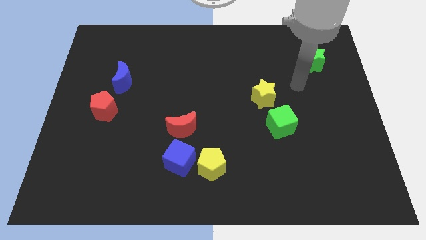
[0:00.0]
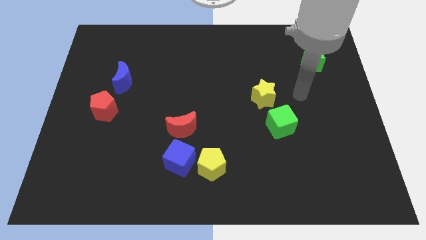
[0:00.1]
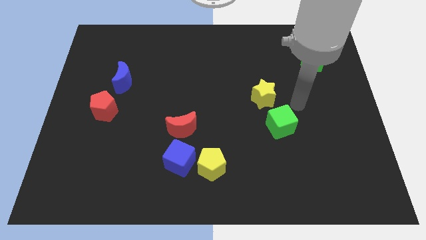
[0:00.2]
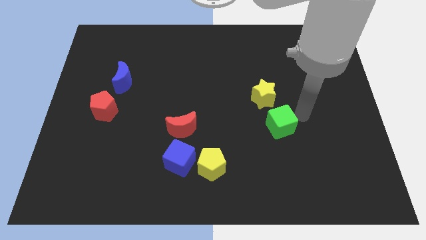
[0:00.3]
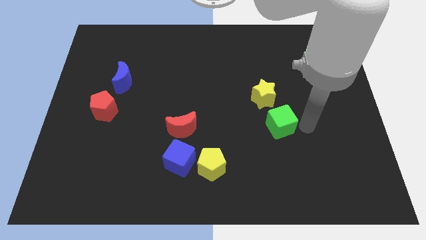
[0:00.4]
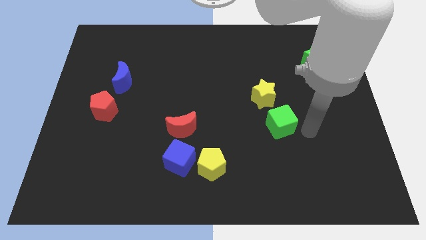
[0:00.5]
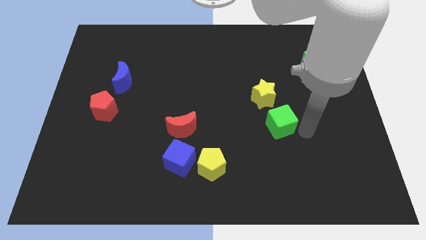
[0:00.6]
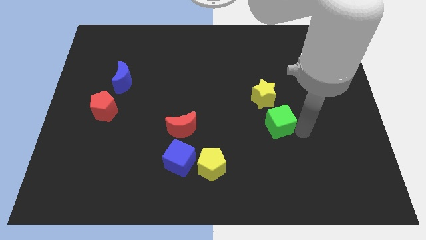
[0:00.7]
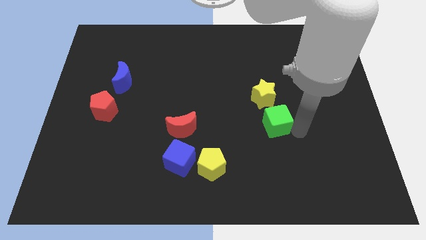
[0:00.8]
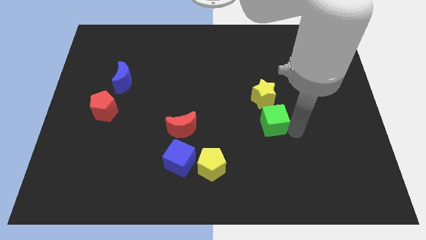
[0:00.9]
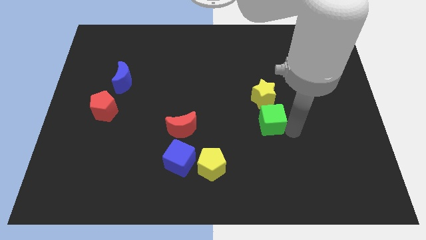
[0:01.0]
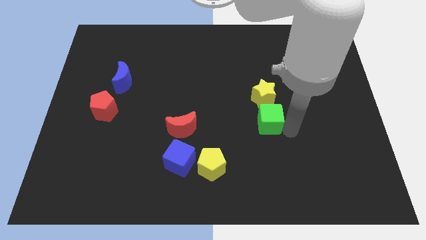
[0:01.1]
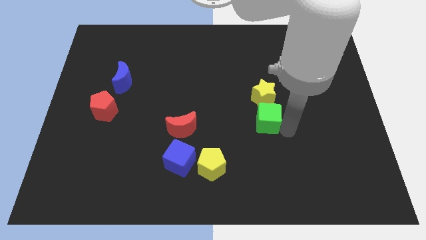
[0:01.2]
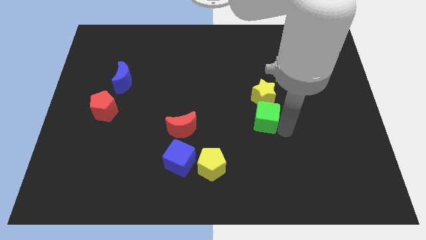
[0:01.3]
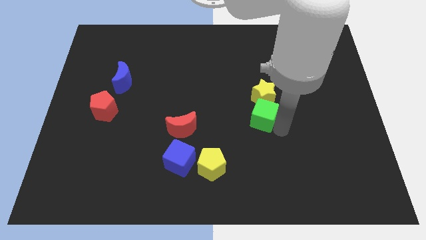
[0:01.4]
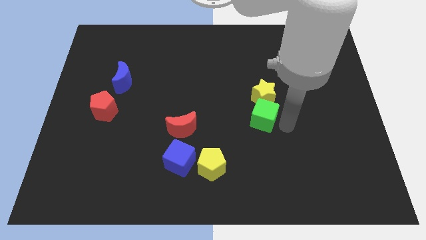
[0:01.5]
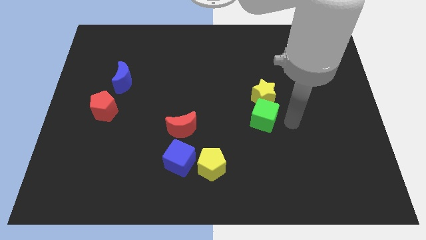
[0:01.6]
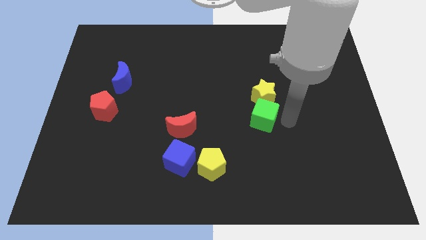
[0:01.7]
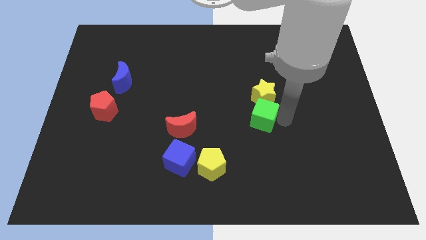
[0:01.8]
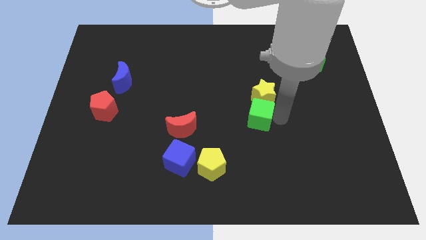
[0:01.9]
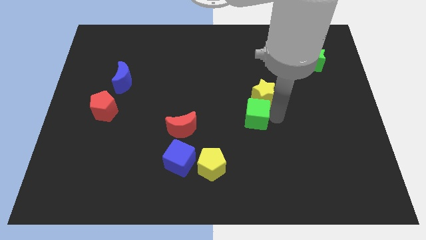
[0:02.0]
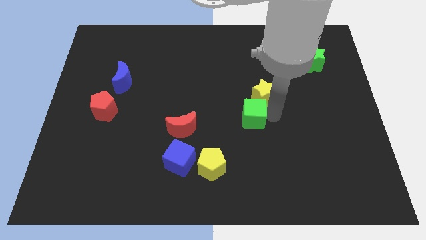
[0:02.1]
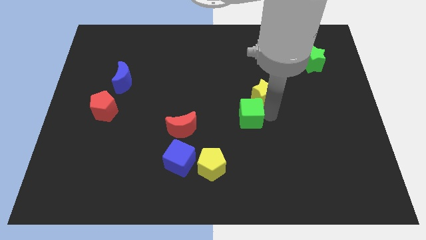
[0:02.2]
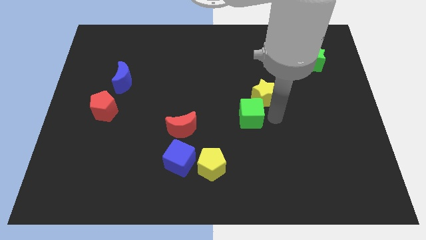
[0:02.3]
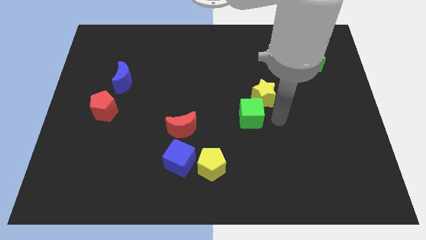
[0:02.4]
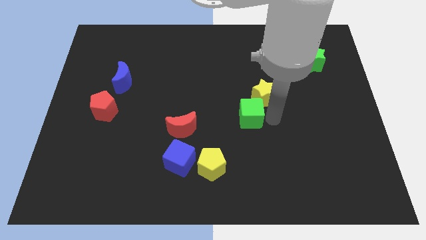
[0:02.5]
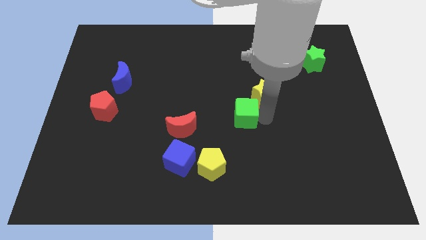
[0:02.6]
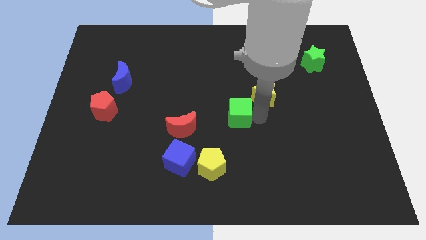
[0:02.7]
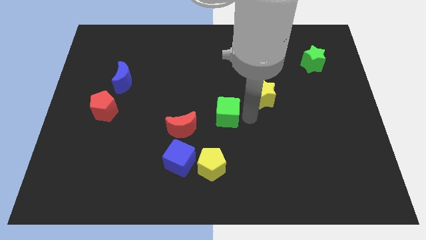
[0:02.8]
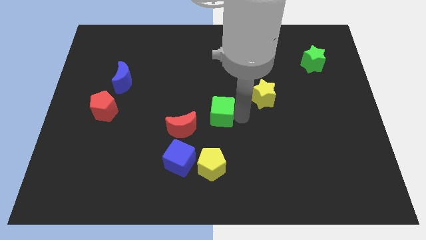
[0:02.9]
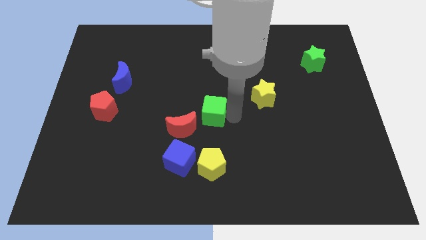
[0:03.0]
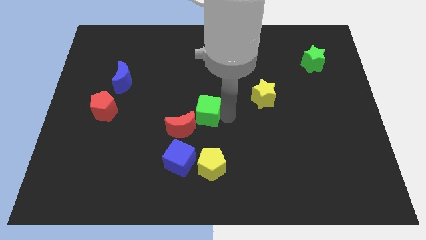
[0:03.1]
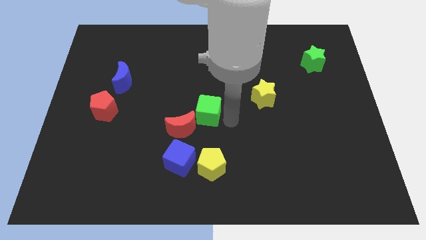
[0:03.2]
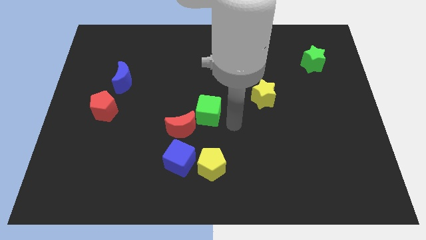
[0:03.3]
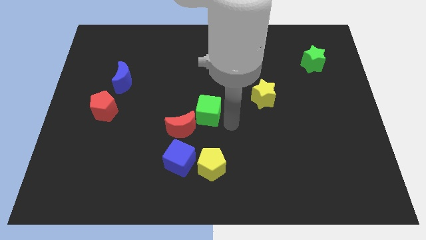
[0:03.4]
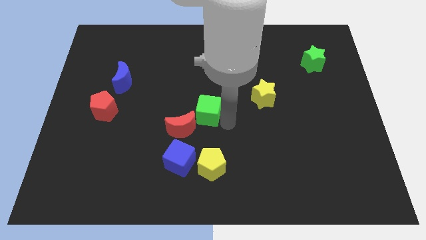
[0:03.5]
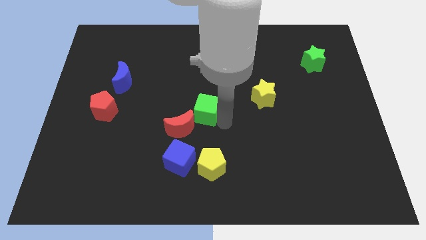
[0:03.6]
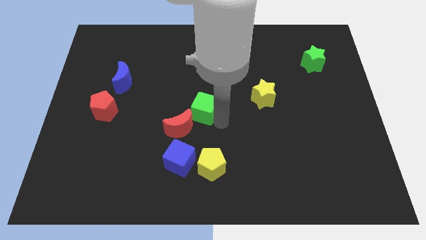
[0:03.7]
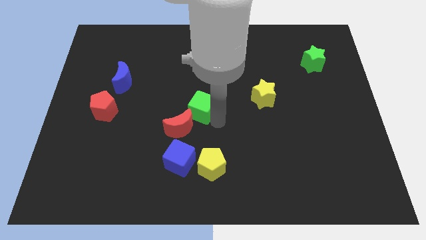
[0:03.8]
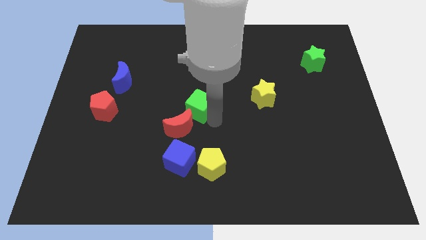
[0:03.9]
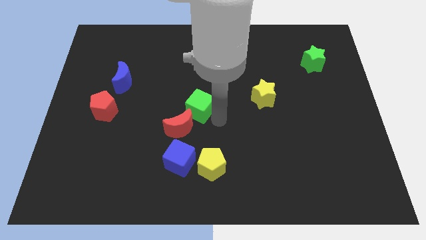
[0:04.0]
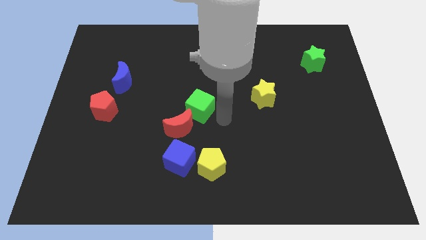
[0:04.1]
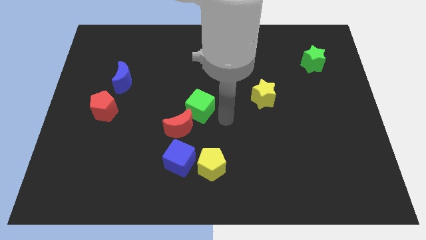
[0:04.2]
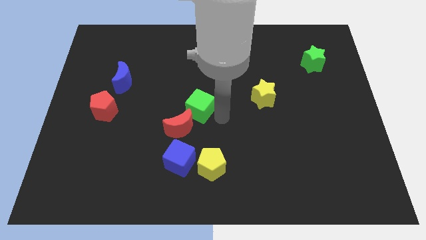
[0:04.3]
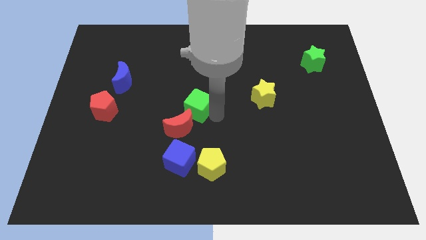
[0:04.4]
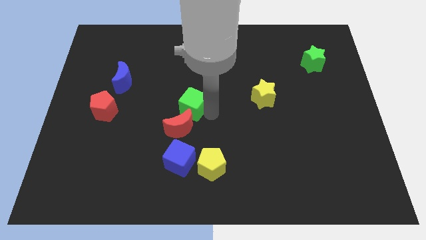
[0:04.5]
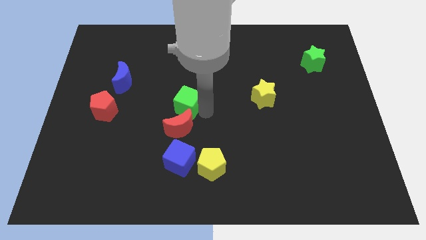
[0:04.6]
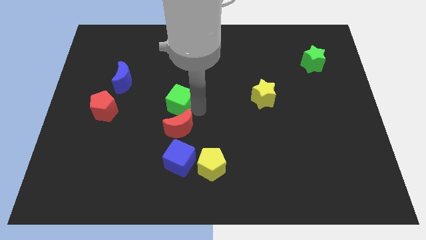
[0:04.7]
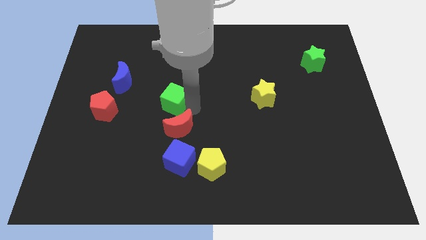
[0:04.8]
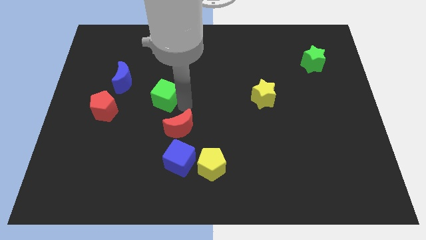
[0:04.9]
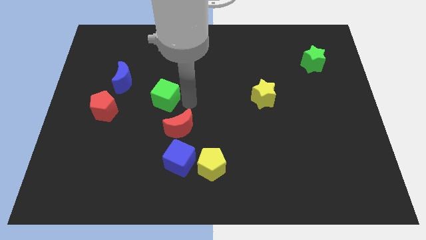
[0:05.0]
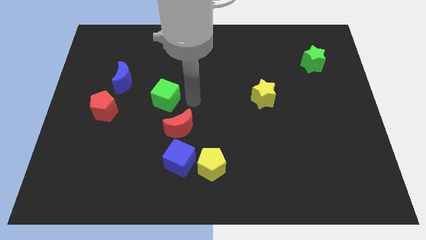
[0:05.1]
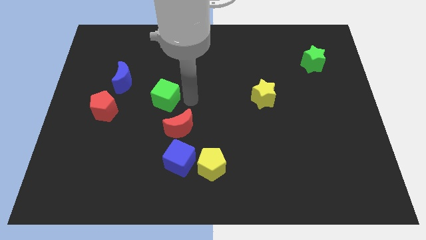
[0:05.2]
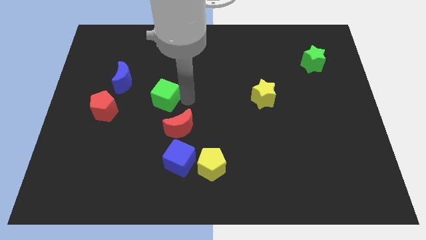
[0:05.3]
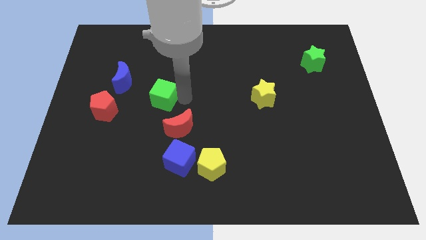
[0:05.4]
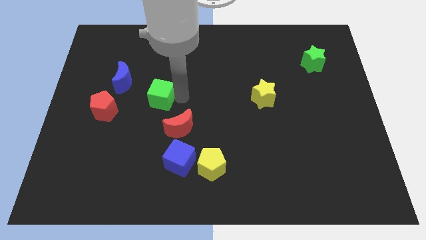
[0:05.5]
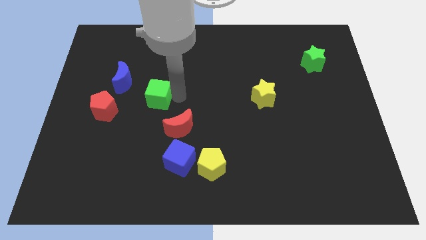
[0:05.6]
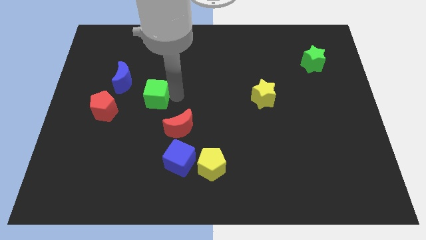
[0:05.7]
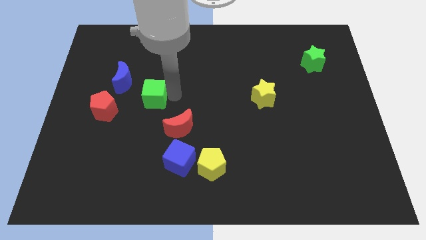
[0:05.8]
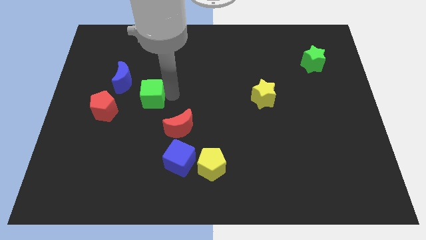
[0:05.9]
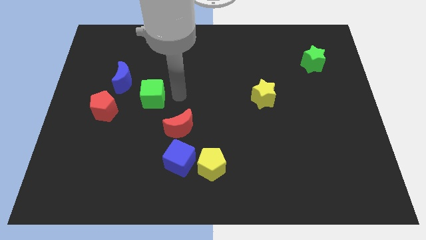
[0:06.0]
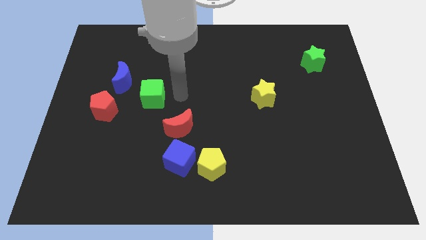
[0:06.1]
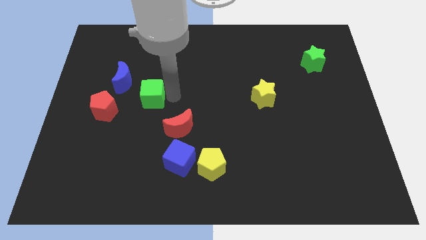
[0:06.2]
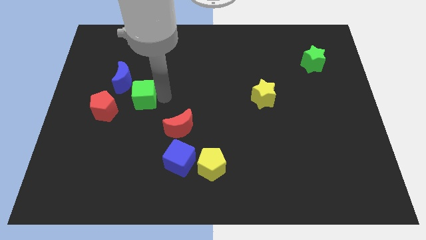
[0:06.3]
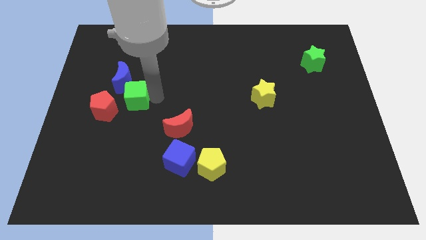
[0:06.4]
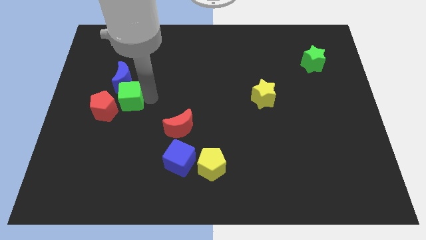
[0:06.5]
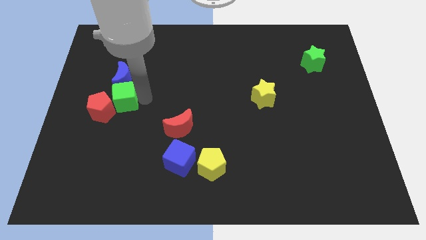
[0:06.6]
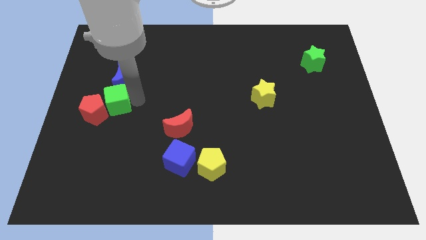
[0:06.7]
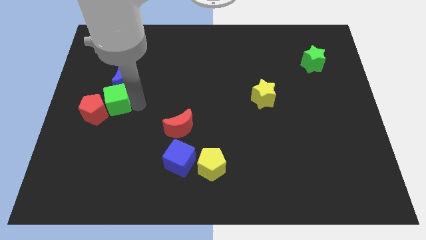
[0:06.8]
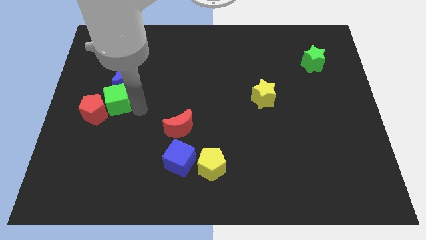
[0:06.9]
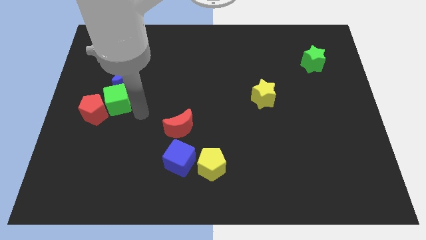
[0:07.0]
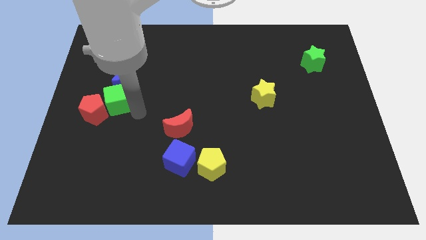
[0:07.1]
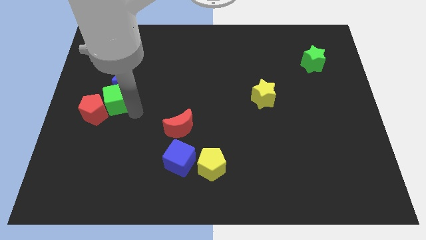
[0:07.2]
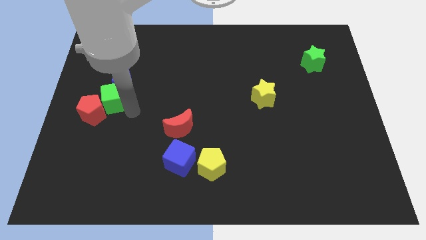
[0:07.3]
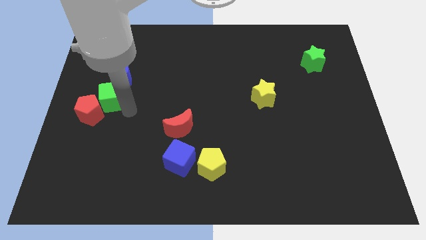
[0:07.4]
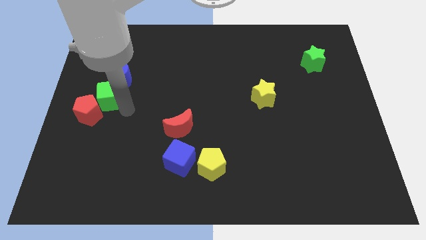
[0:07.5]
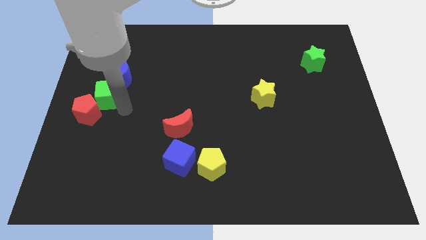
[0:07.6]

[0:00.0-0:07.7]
move the green cube to the left side
